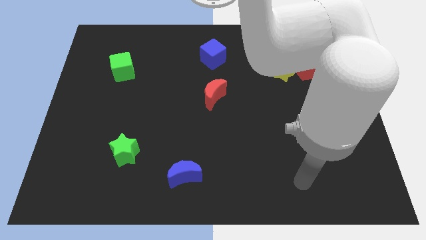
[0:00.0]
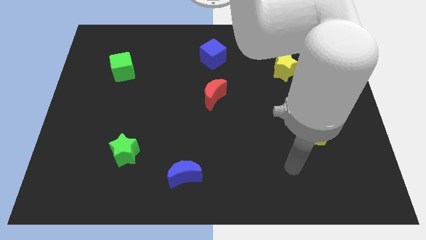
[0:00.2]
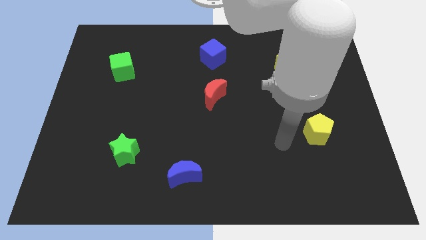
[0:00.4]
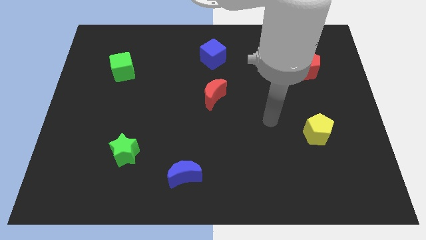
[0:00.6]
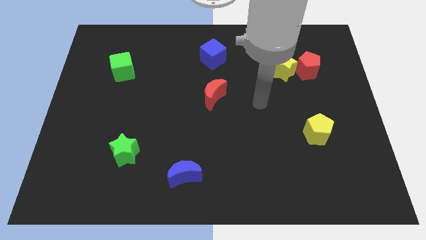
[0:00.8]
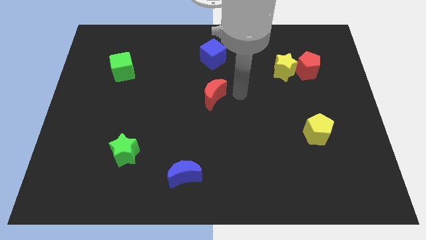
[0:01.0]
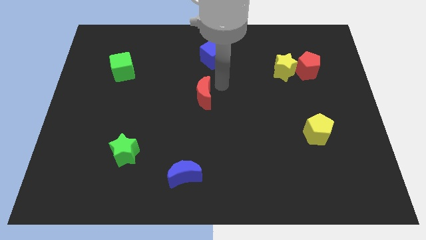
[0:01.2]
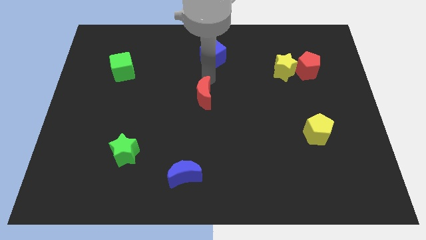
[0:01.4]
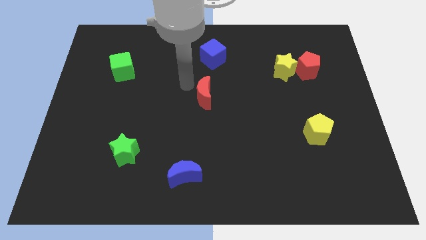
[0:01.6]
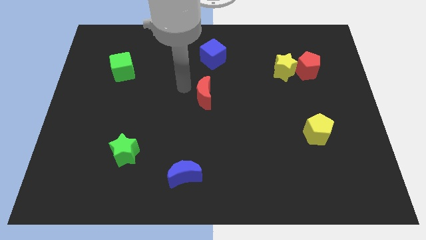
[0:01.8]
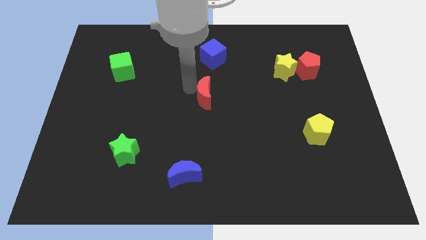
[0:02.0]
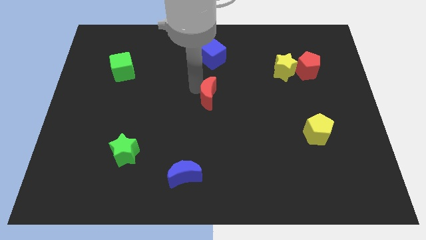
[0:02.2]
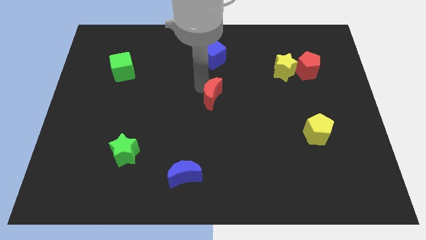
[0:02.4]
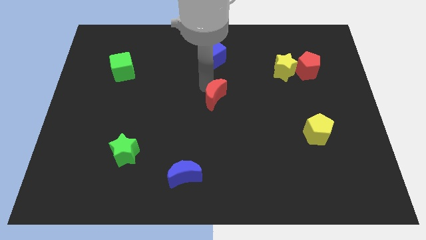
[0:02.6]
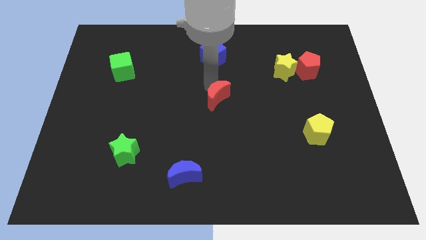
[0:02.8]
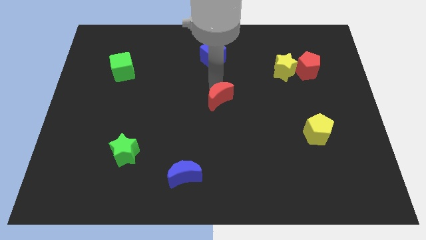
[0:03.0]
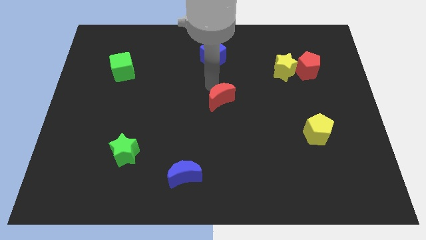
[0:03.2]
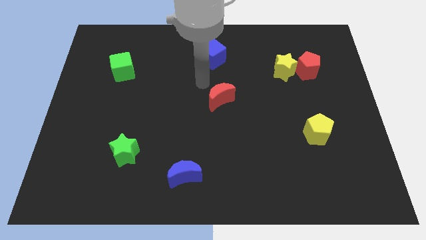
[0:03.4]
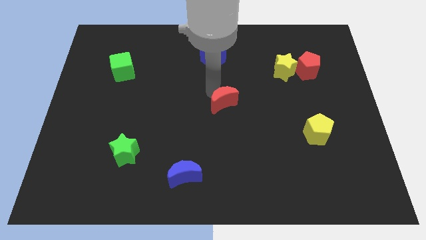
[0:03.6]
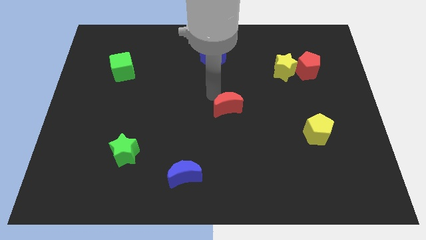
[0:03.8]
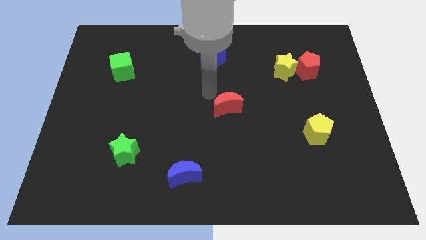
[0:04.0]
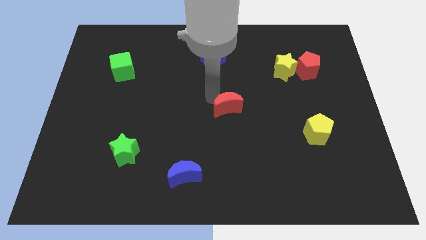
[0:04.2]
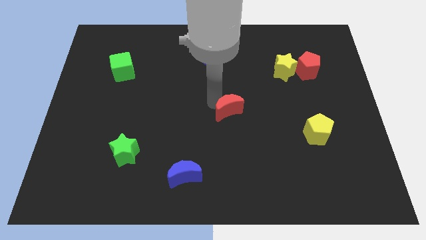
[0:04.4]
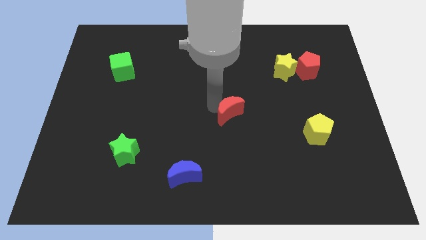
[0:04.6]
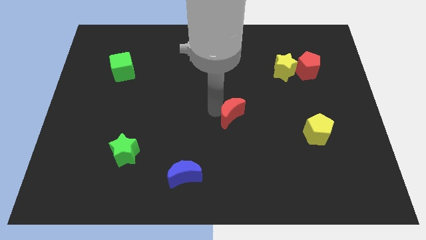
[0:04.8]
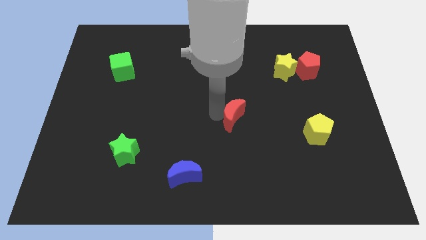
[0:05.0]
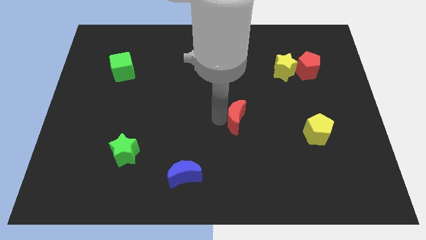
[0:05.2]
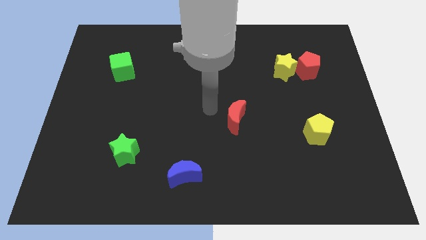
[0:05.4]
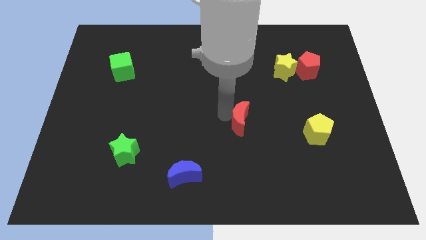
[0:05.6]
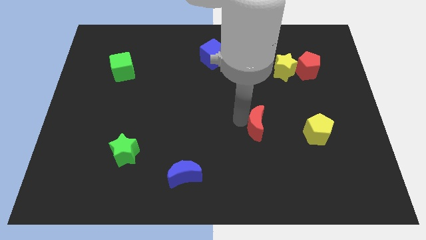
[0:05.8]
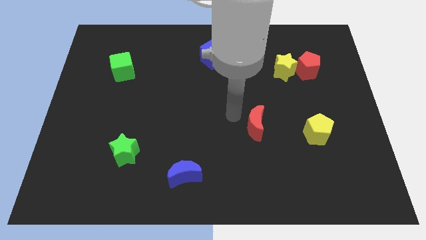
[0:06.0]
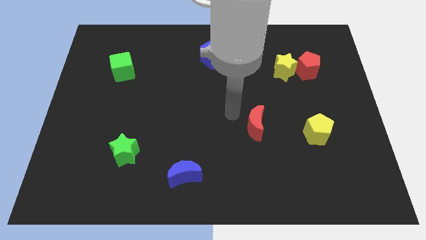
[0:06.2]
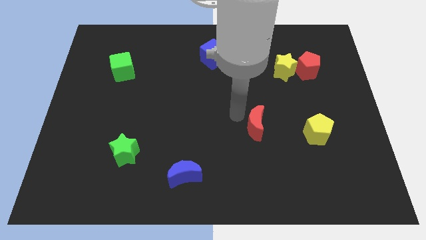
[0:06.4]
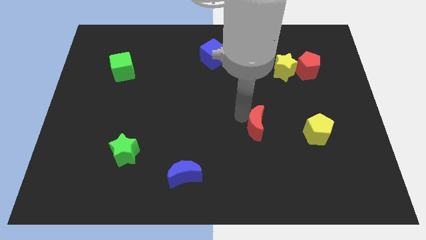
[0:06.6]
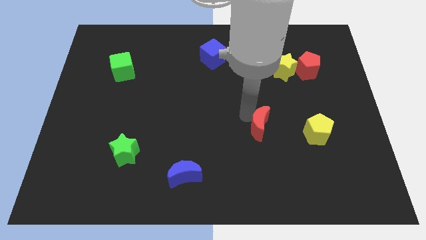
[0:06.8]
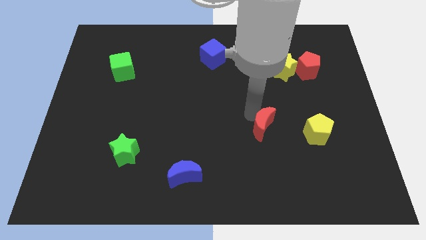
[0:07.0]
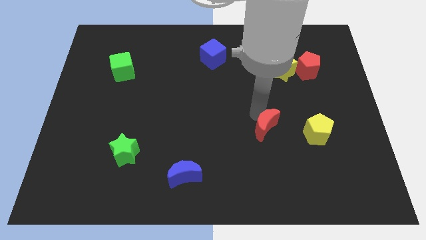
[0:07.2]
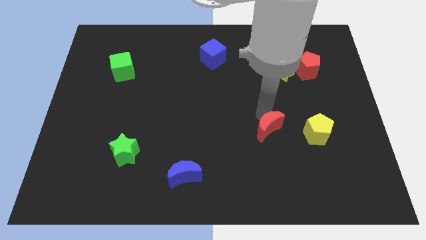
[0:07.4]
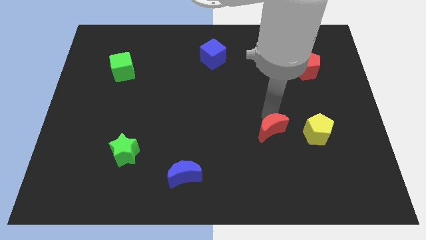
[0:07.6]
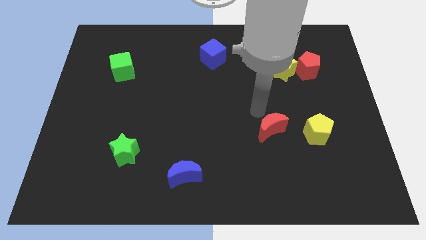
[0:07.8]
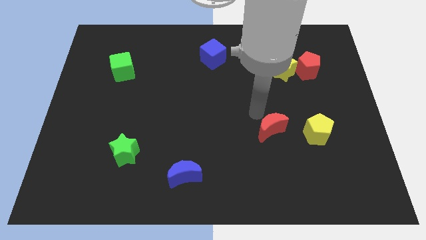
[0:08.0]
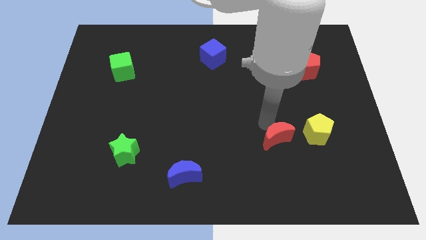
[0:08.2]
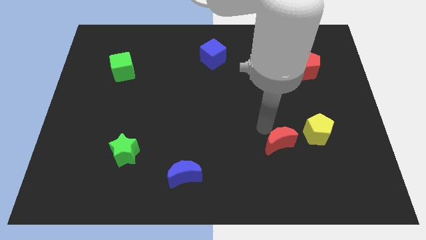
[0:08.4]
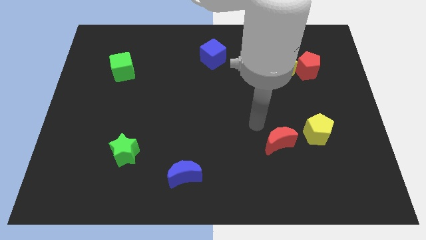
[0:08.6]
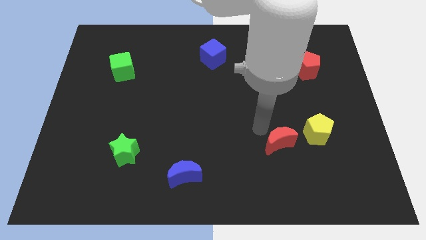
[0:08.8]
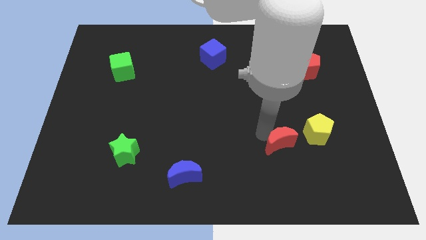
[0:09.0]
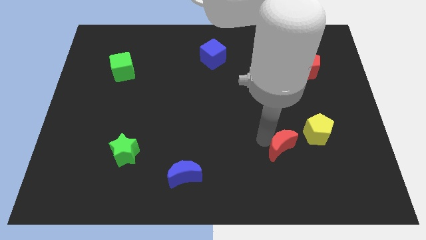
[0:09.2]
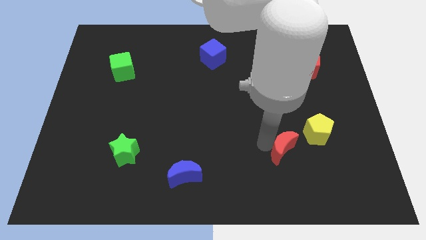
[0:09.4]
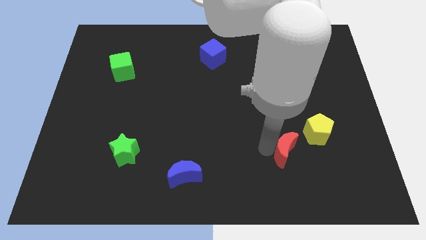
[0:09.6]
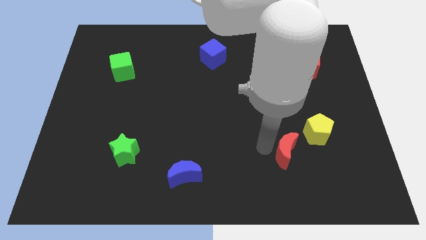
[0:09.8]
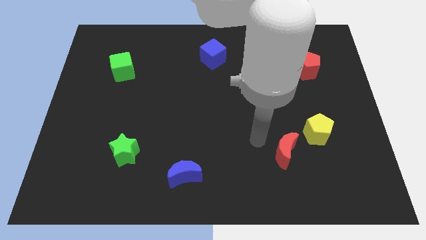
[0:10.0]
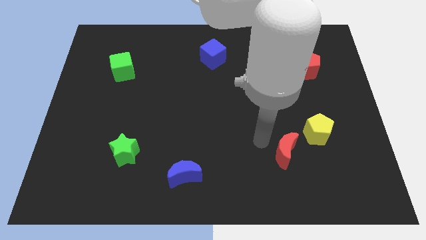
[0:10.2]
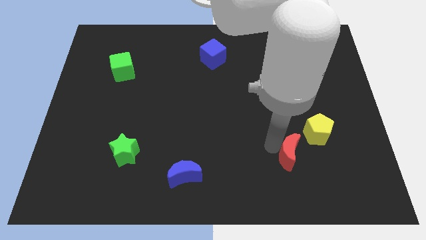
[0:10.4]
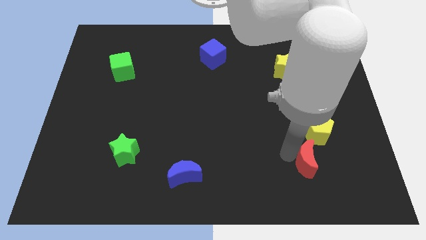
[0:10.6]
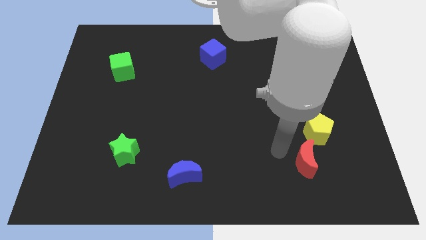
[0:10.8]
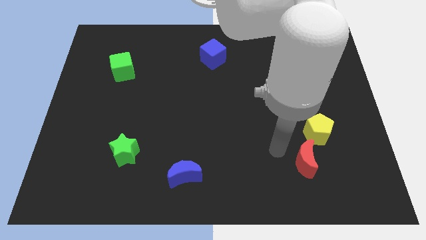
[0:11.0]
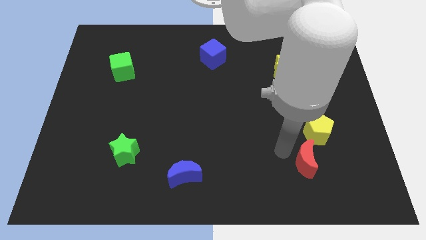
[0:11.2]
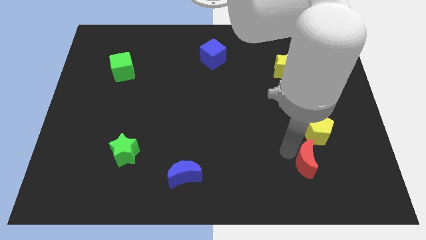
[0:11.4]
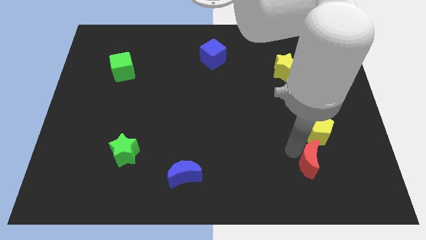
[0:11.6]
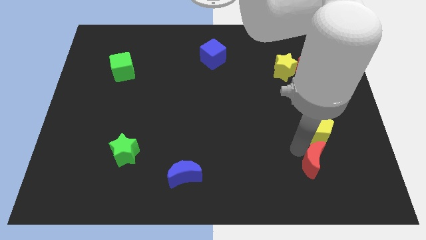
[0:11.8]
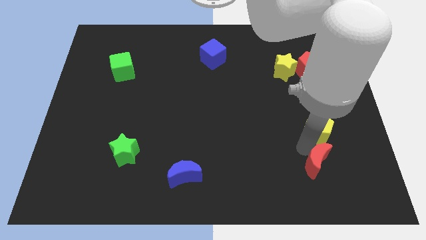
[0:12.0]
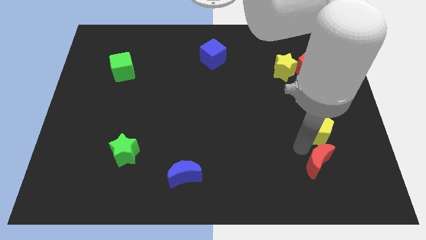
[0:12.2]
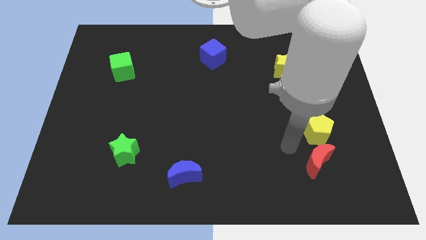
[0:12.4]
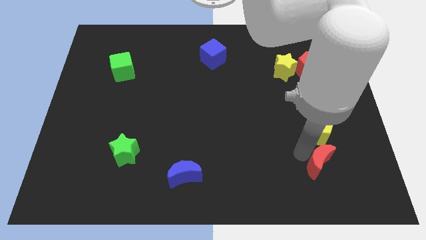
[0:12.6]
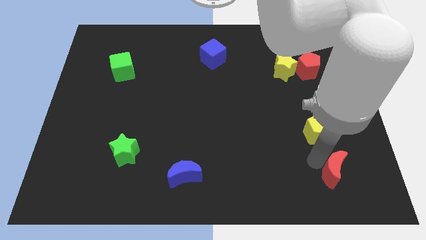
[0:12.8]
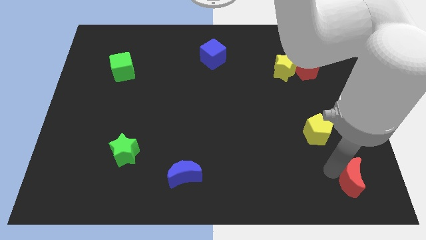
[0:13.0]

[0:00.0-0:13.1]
push the red moon to the bottom right
